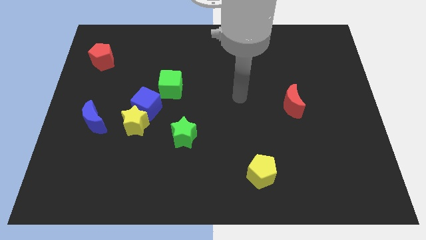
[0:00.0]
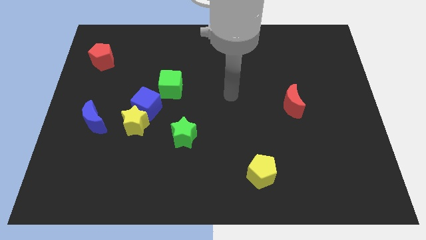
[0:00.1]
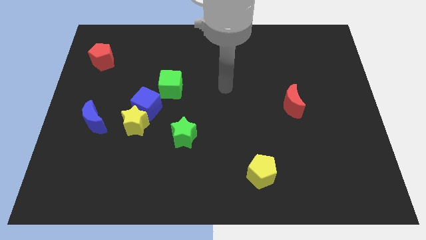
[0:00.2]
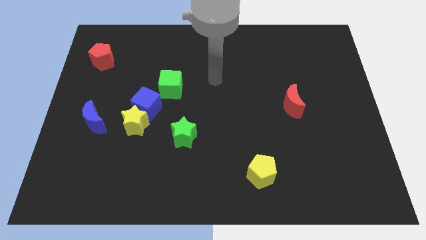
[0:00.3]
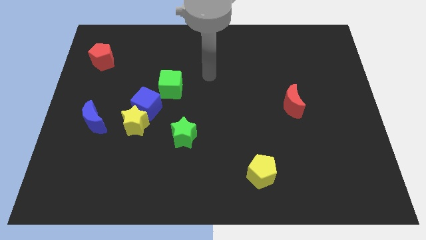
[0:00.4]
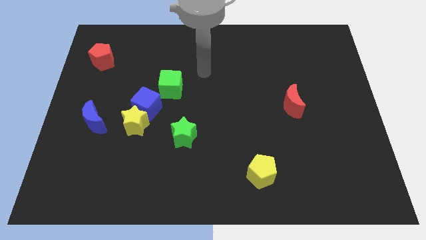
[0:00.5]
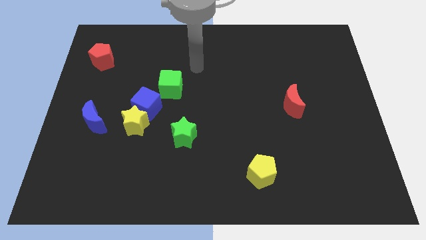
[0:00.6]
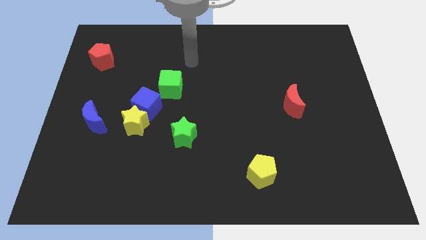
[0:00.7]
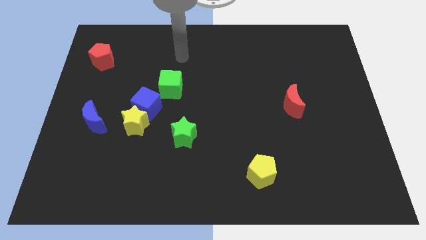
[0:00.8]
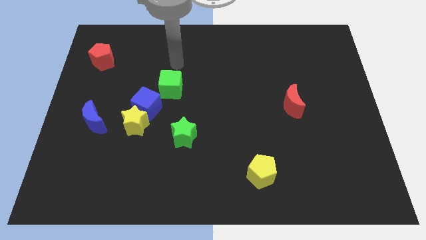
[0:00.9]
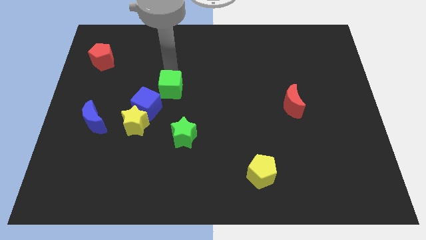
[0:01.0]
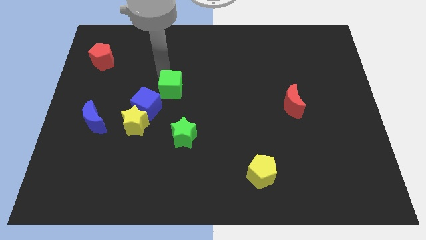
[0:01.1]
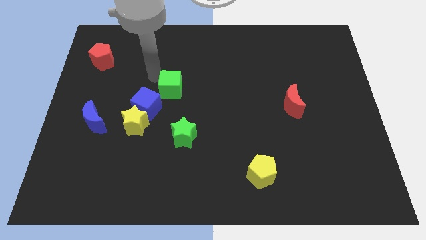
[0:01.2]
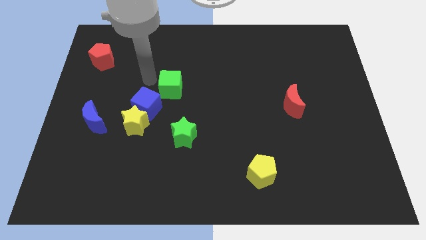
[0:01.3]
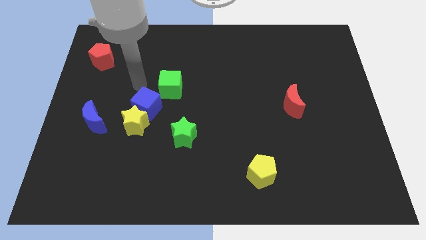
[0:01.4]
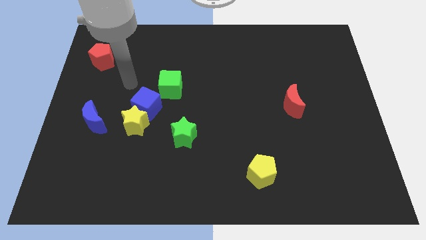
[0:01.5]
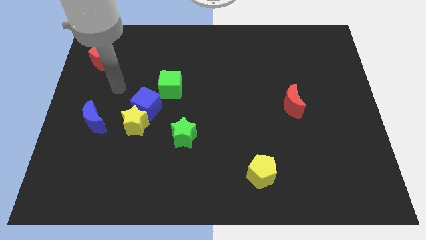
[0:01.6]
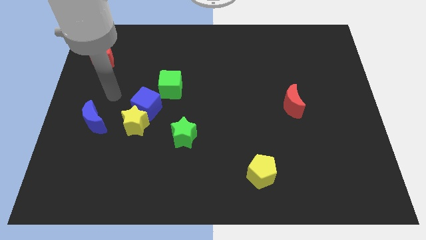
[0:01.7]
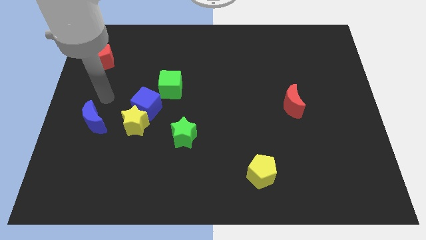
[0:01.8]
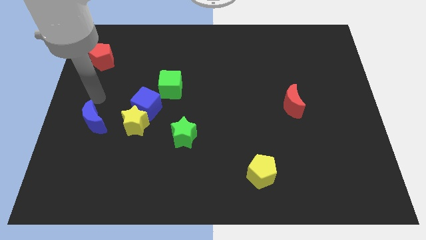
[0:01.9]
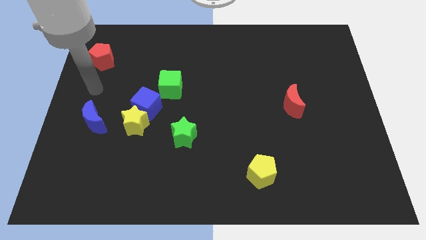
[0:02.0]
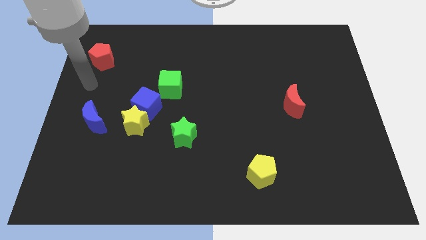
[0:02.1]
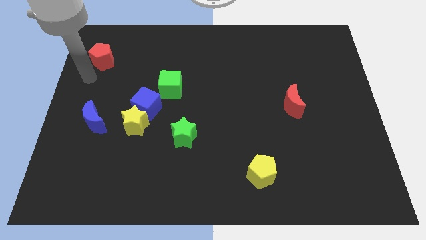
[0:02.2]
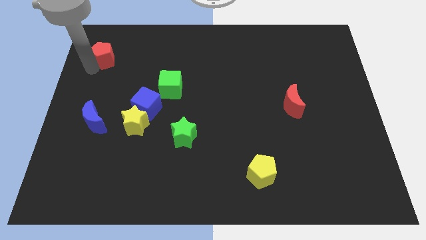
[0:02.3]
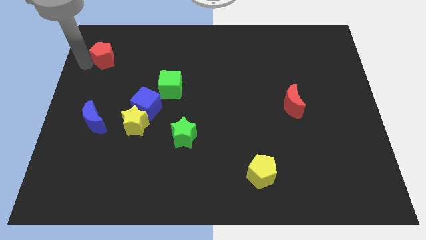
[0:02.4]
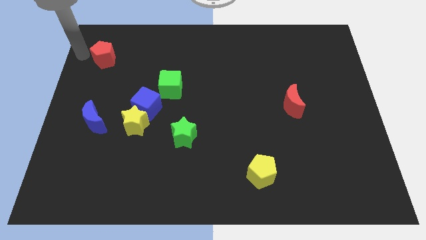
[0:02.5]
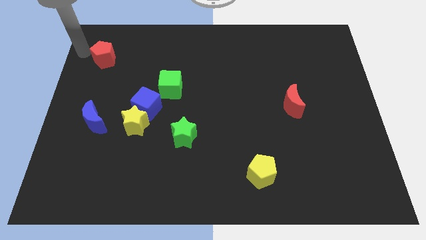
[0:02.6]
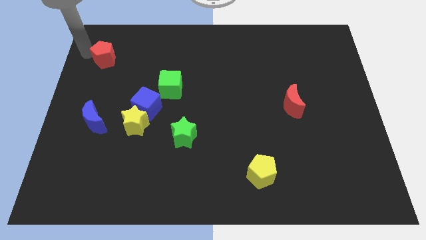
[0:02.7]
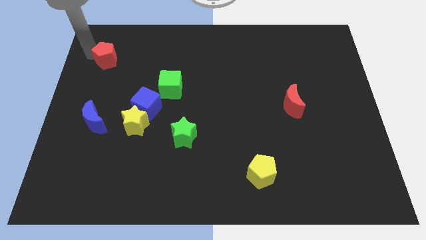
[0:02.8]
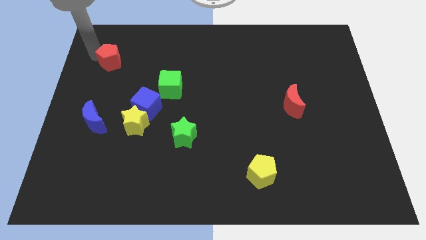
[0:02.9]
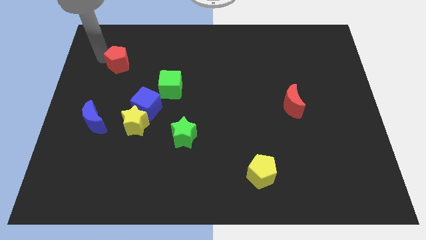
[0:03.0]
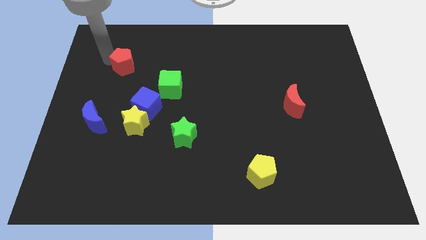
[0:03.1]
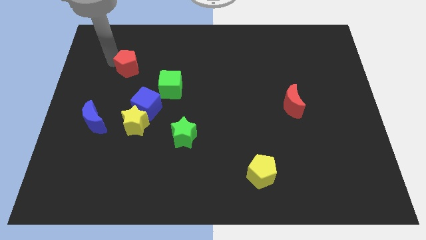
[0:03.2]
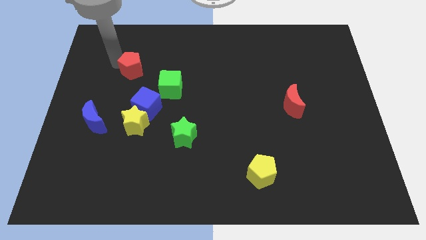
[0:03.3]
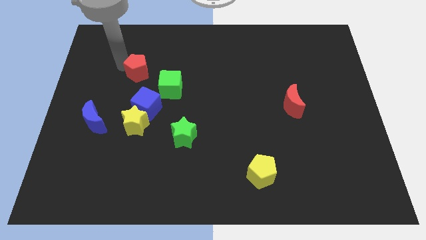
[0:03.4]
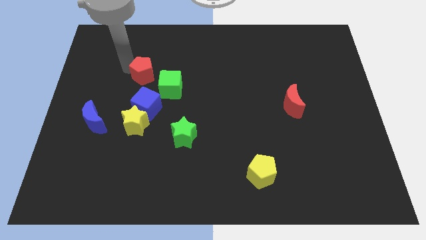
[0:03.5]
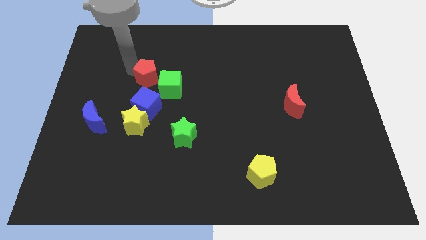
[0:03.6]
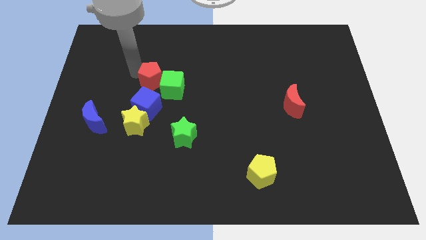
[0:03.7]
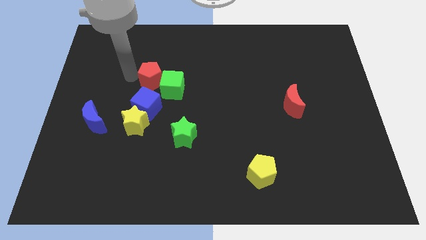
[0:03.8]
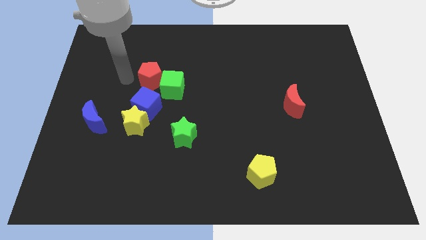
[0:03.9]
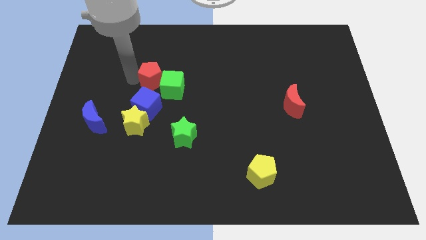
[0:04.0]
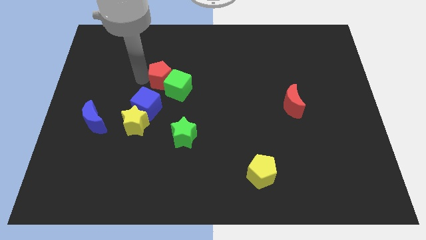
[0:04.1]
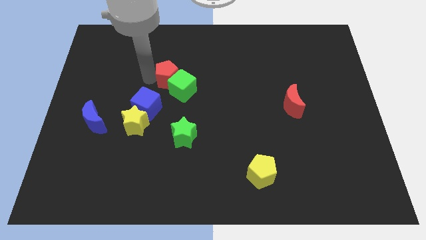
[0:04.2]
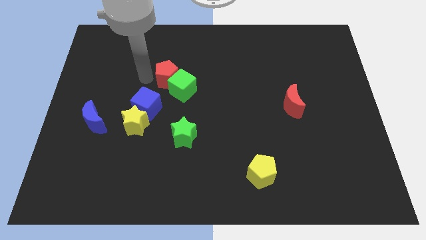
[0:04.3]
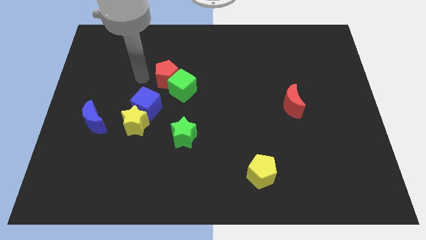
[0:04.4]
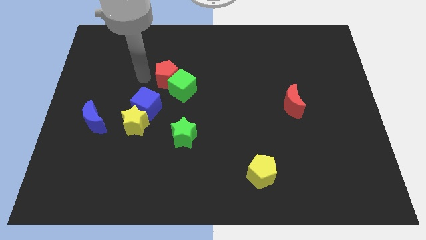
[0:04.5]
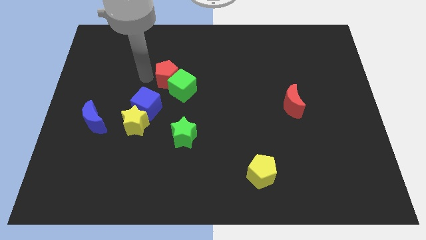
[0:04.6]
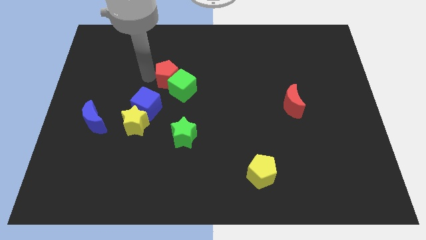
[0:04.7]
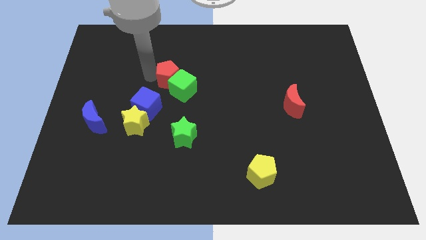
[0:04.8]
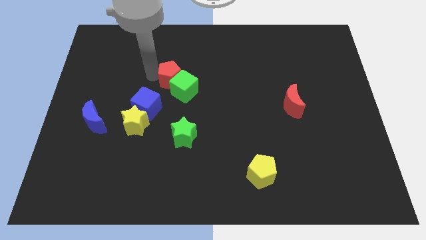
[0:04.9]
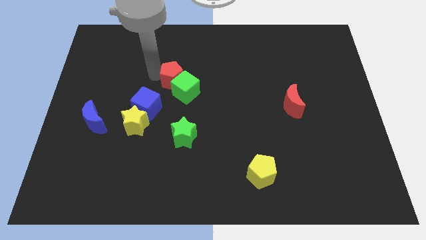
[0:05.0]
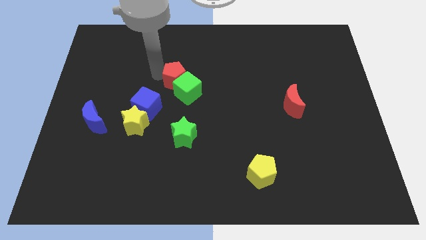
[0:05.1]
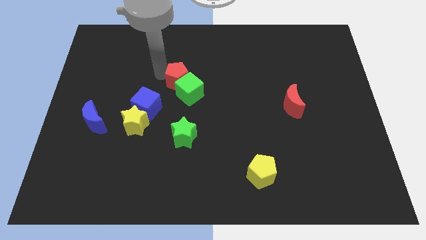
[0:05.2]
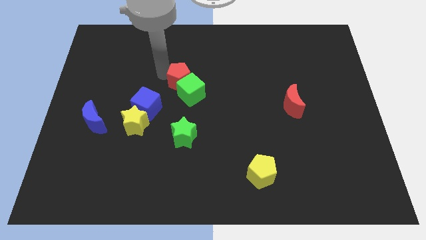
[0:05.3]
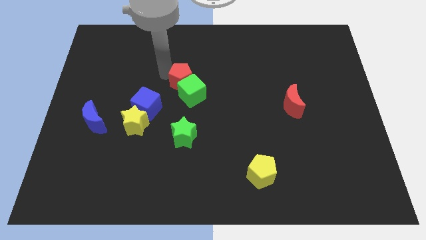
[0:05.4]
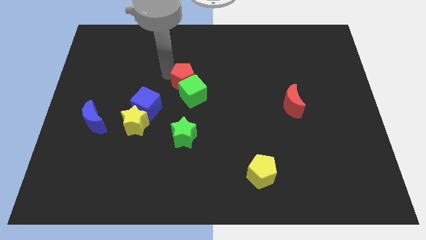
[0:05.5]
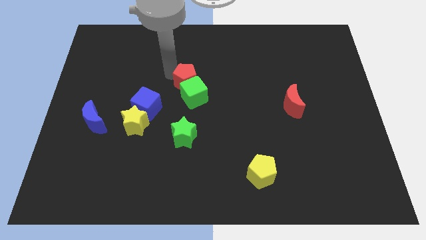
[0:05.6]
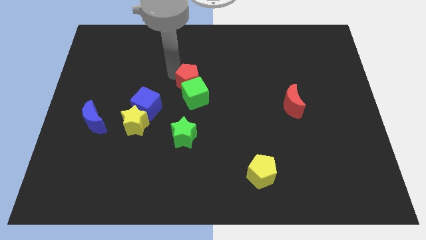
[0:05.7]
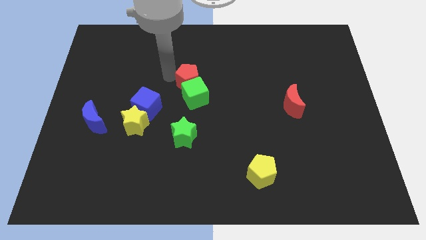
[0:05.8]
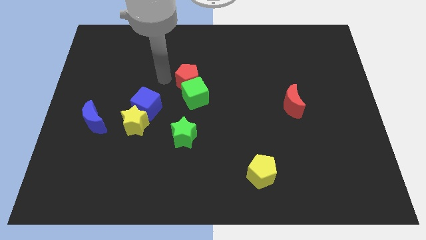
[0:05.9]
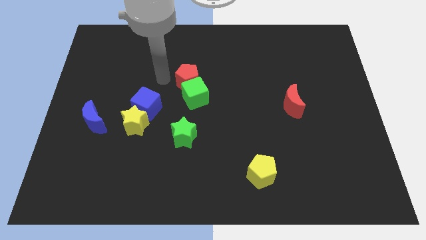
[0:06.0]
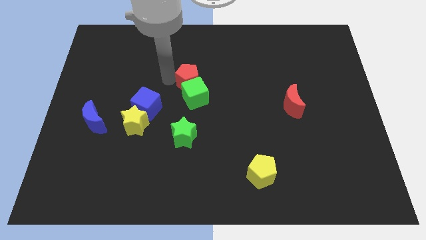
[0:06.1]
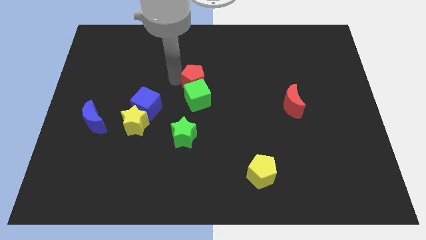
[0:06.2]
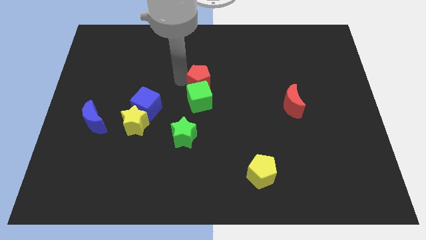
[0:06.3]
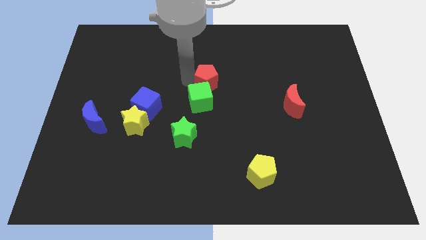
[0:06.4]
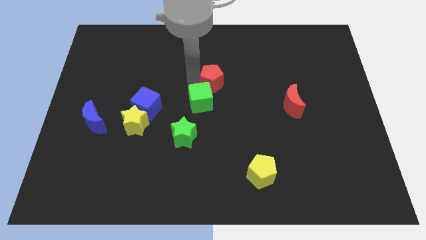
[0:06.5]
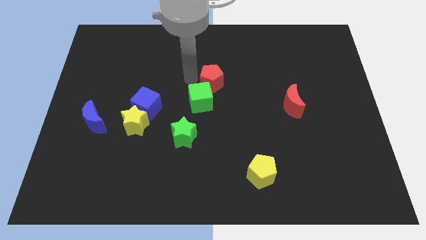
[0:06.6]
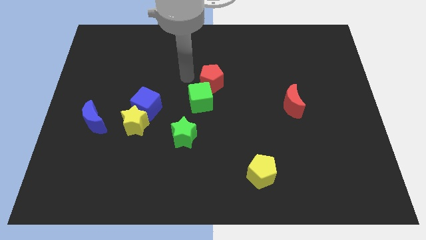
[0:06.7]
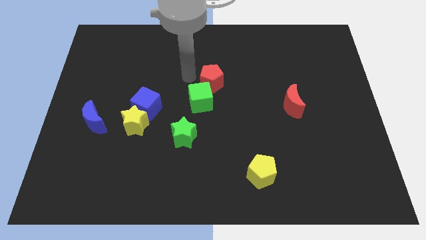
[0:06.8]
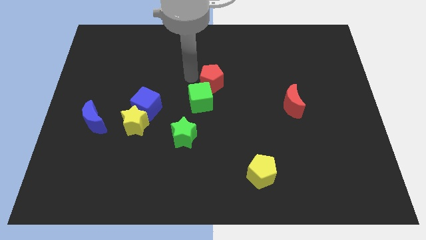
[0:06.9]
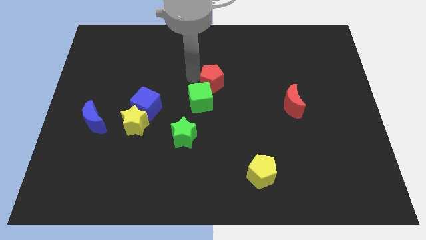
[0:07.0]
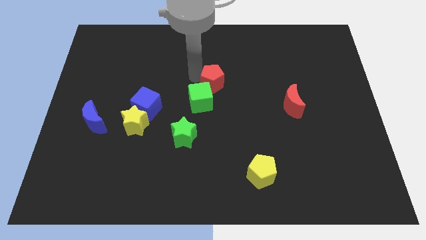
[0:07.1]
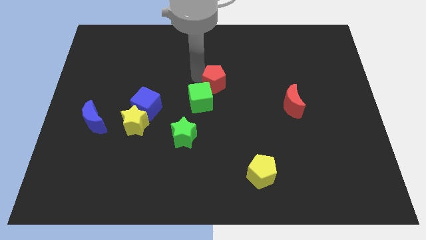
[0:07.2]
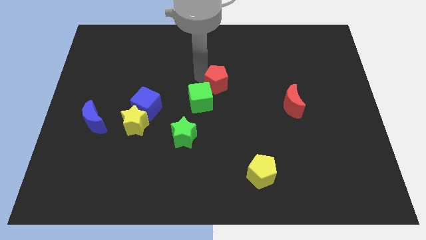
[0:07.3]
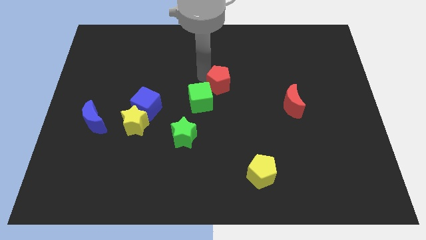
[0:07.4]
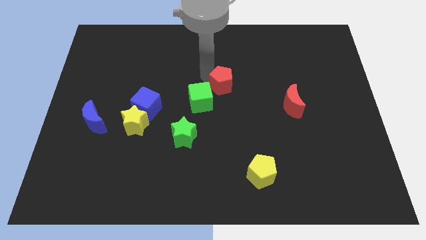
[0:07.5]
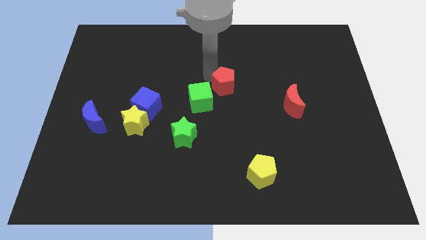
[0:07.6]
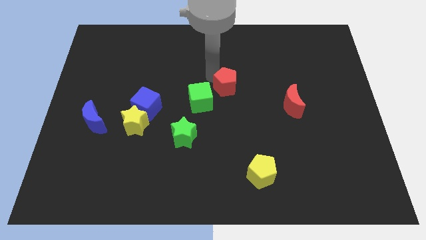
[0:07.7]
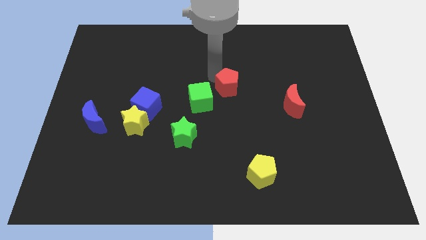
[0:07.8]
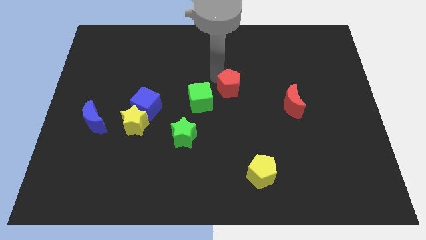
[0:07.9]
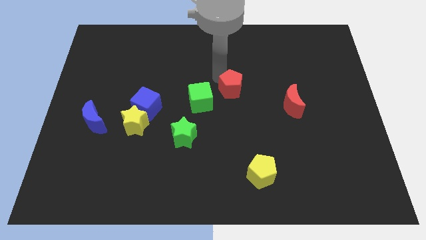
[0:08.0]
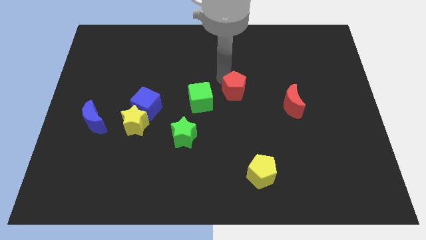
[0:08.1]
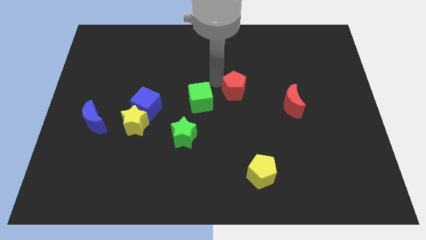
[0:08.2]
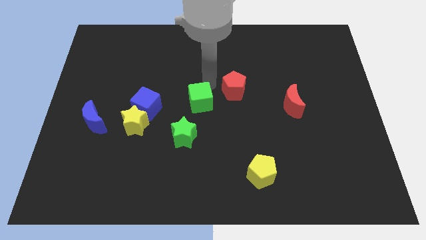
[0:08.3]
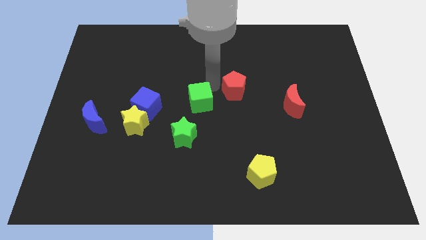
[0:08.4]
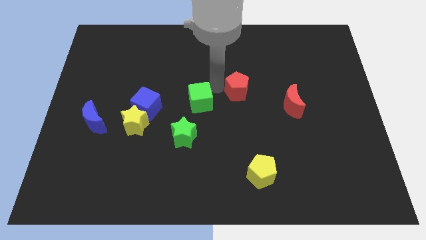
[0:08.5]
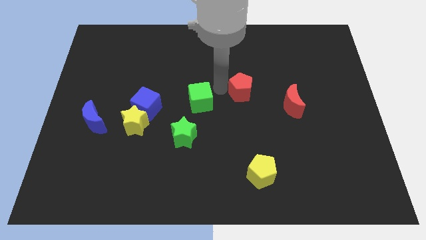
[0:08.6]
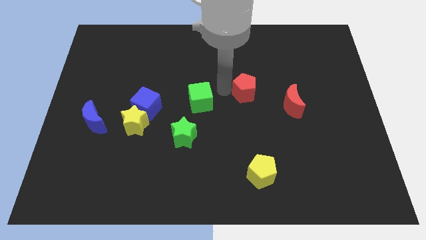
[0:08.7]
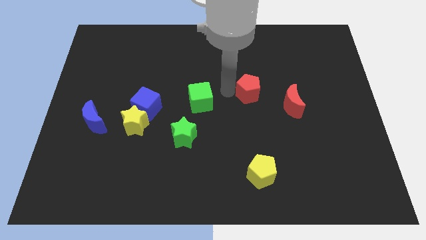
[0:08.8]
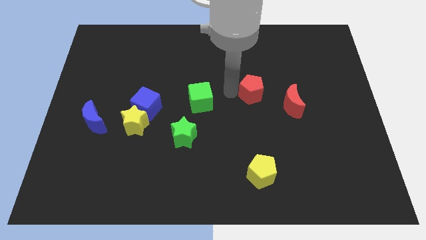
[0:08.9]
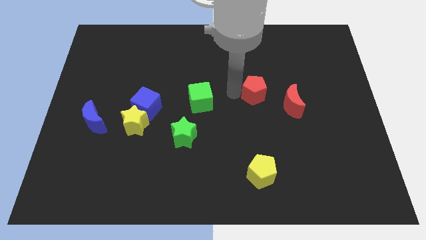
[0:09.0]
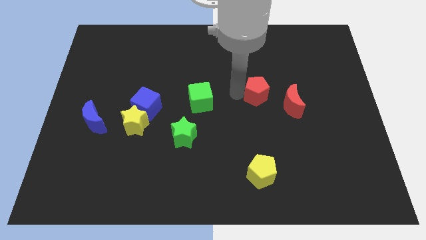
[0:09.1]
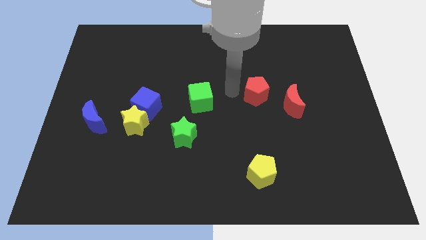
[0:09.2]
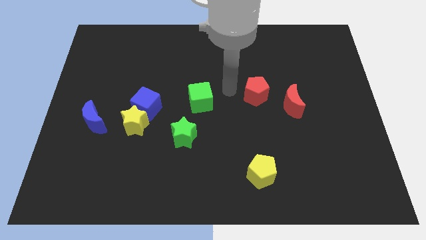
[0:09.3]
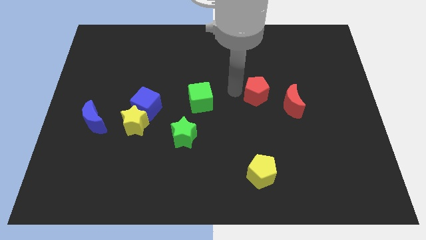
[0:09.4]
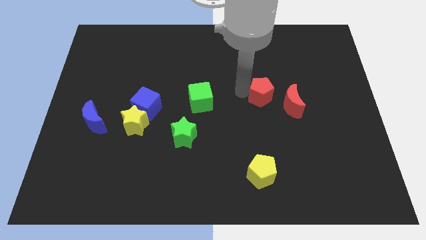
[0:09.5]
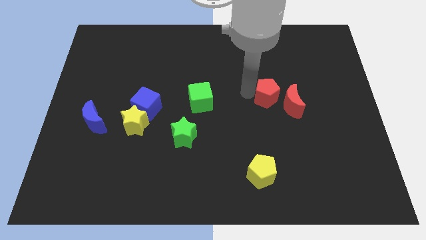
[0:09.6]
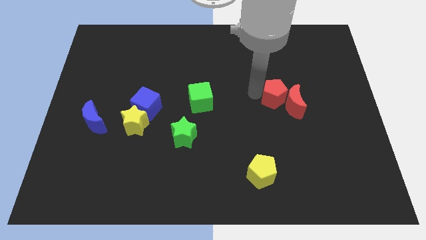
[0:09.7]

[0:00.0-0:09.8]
put the red pentagon next to the red moon
